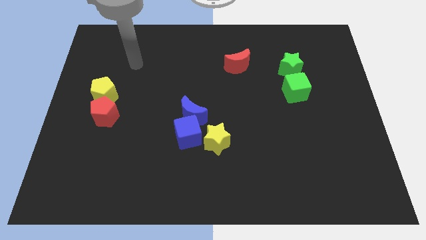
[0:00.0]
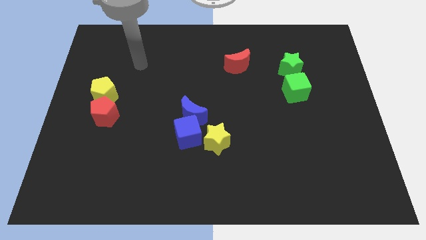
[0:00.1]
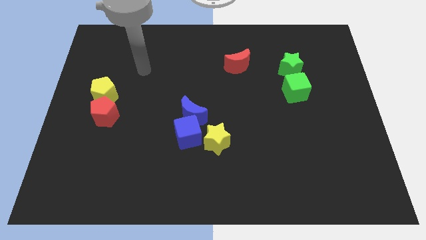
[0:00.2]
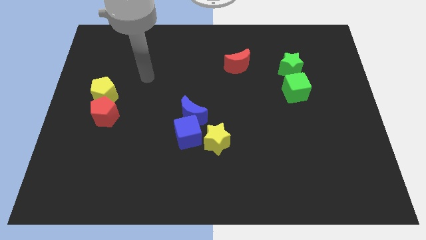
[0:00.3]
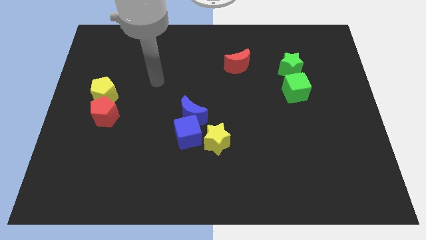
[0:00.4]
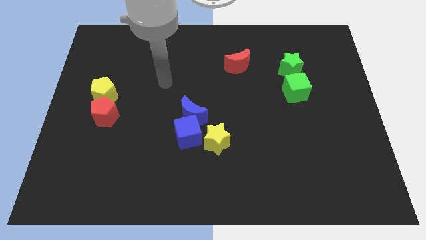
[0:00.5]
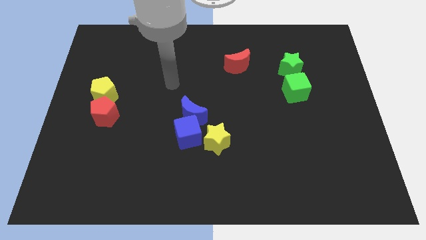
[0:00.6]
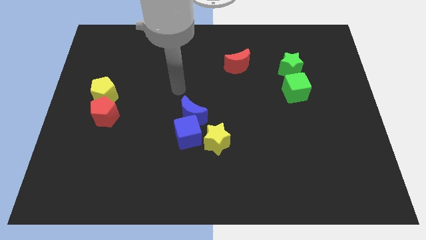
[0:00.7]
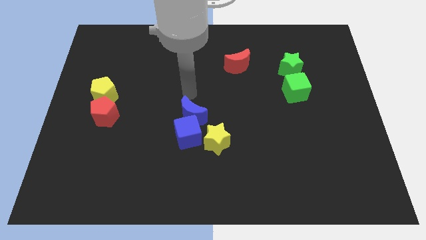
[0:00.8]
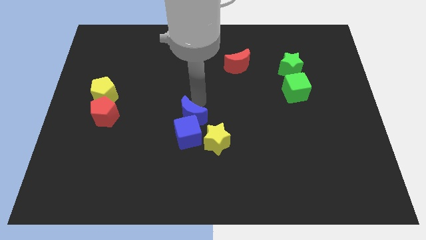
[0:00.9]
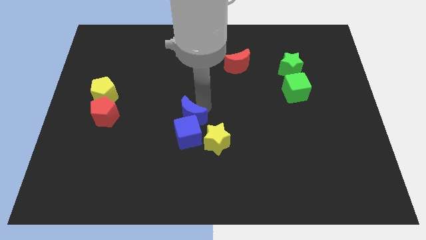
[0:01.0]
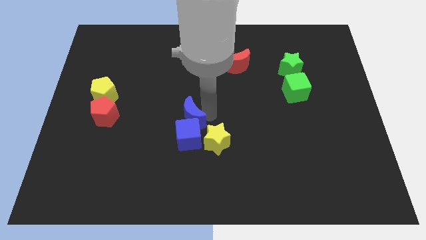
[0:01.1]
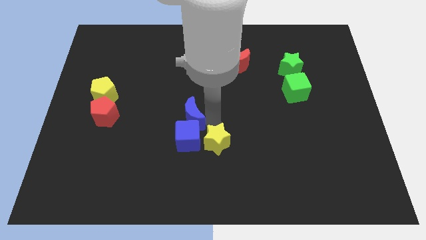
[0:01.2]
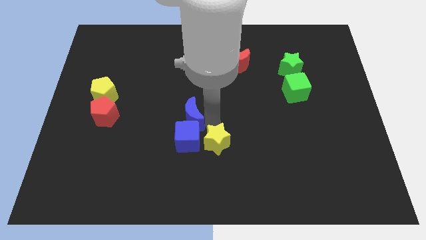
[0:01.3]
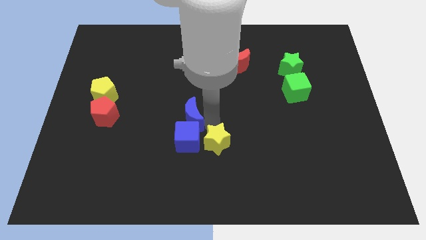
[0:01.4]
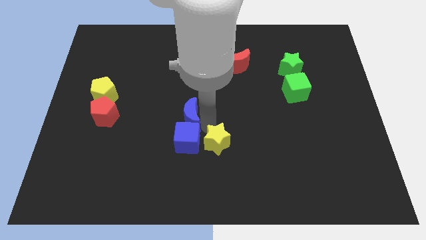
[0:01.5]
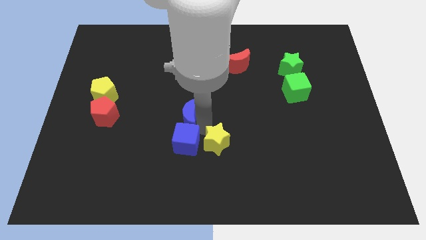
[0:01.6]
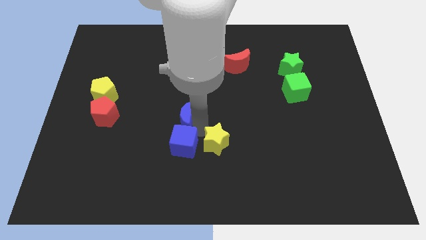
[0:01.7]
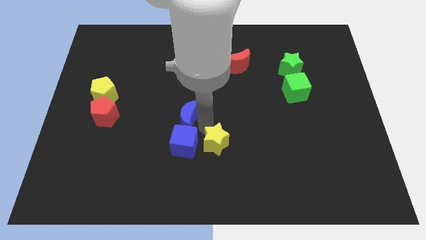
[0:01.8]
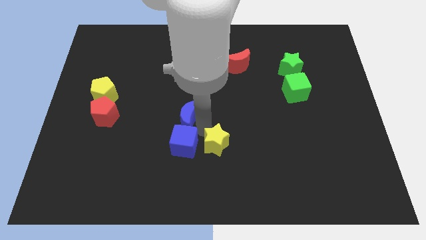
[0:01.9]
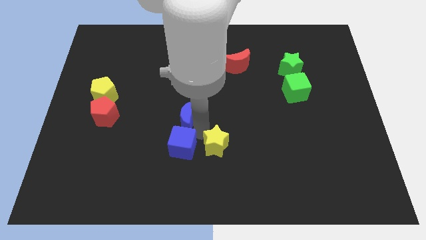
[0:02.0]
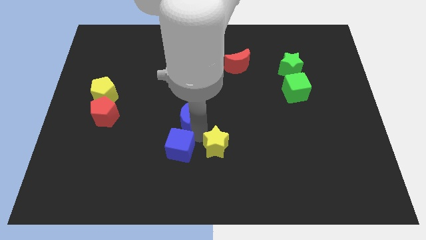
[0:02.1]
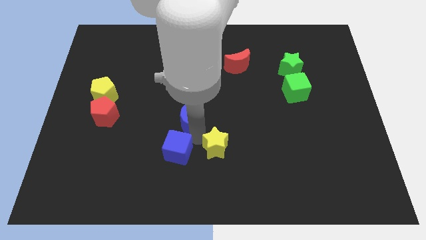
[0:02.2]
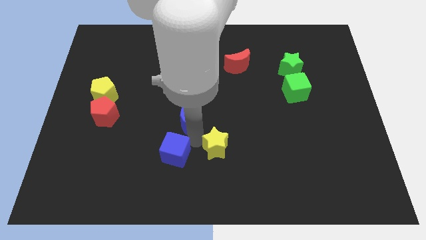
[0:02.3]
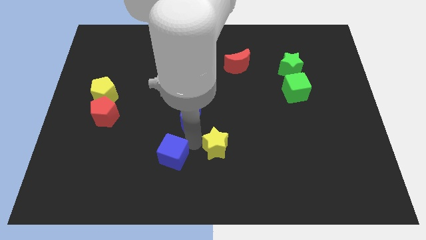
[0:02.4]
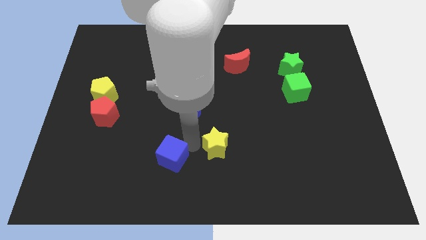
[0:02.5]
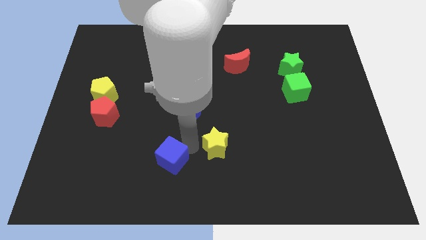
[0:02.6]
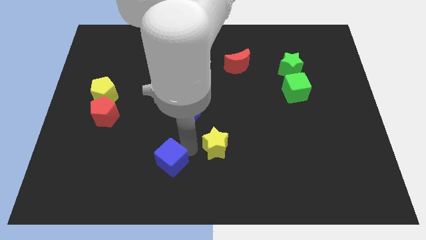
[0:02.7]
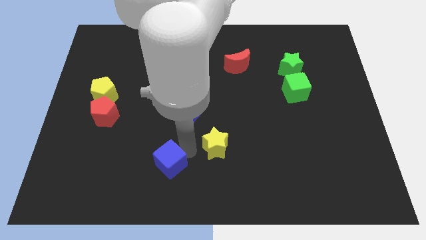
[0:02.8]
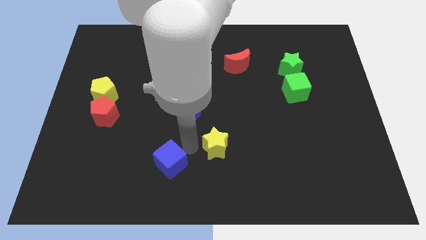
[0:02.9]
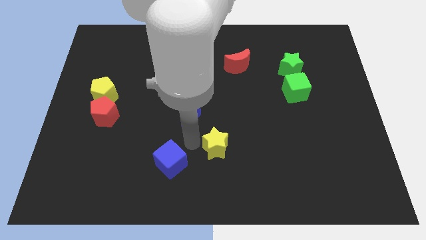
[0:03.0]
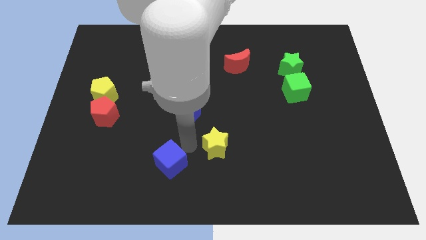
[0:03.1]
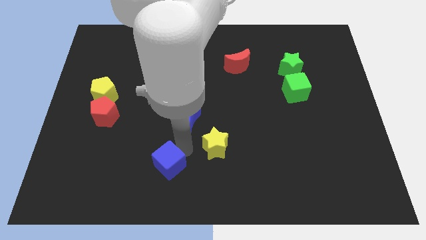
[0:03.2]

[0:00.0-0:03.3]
pull the blue cube apart from the blue moon and yellow star

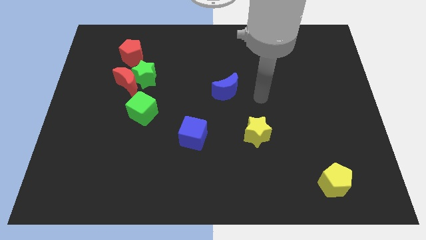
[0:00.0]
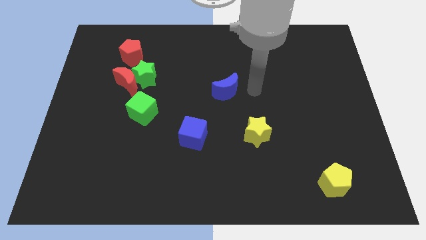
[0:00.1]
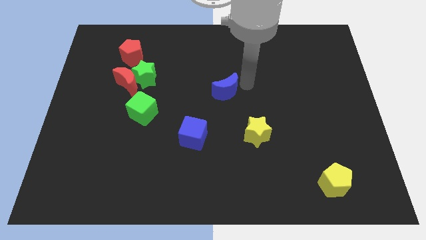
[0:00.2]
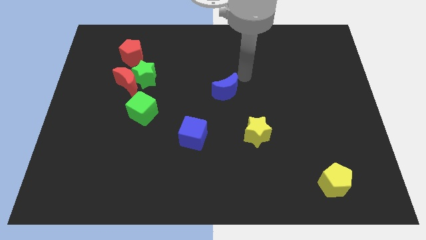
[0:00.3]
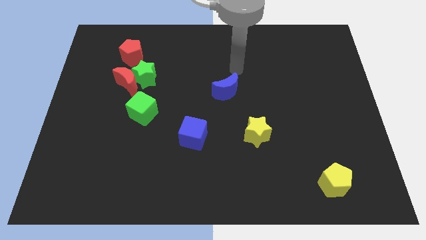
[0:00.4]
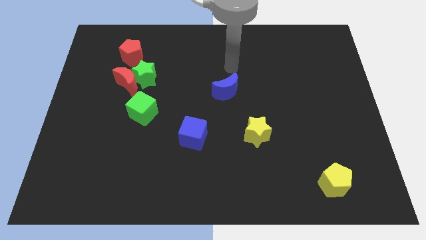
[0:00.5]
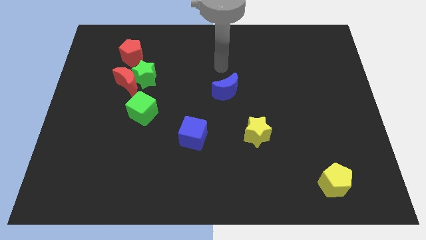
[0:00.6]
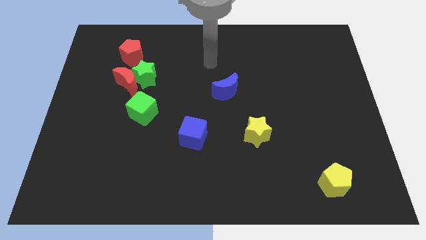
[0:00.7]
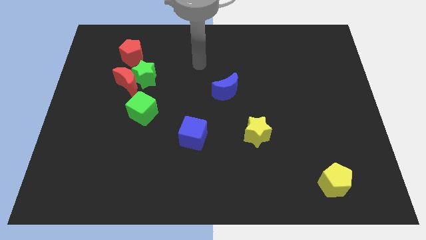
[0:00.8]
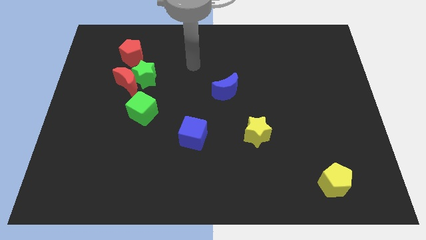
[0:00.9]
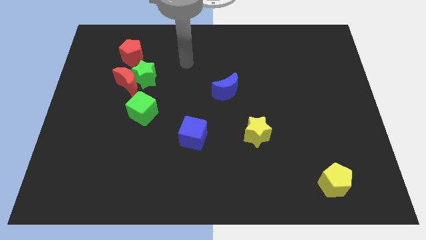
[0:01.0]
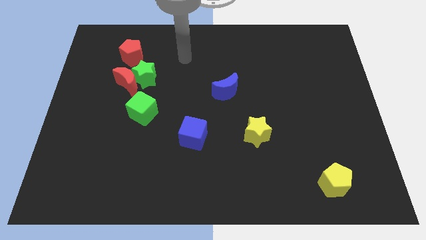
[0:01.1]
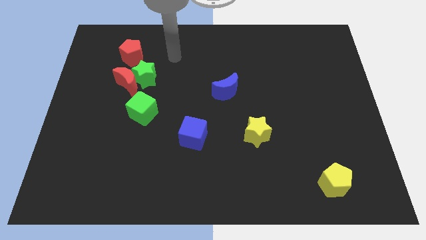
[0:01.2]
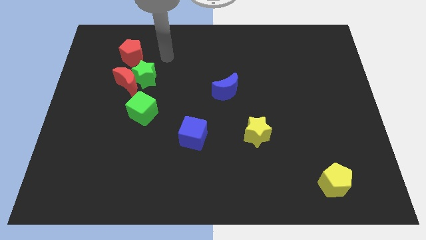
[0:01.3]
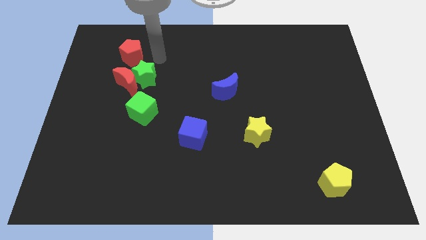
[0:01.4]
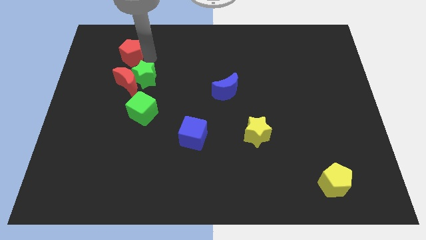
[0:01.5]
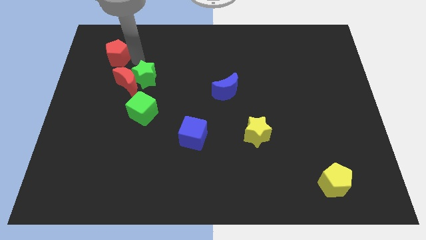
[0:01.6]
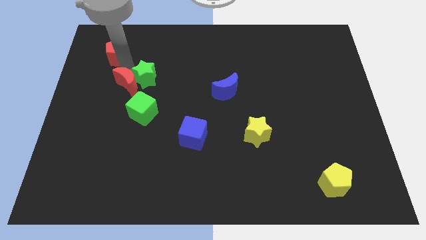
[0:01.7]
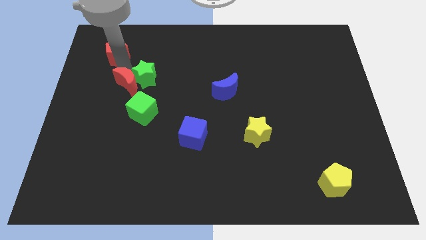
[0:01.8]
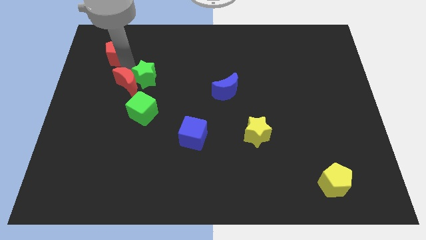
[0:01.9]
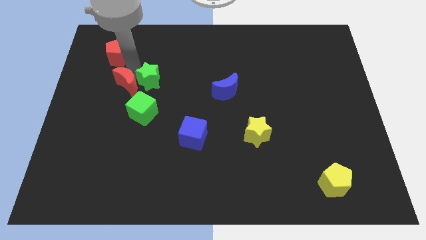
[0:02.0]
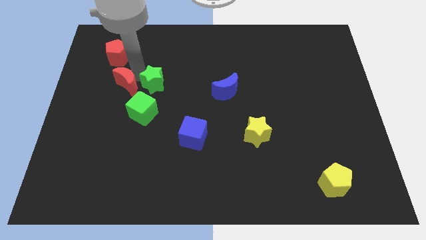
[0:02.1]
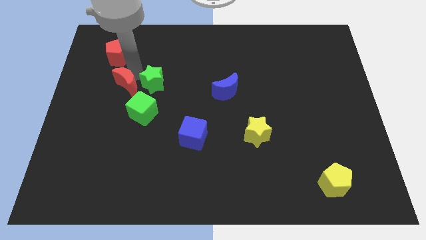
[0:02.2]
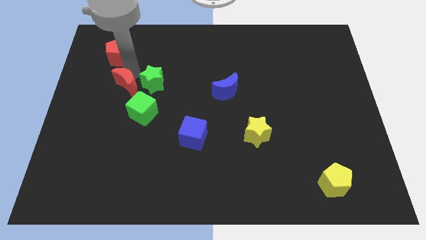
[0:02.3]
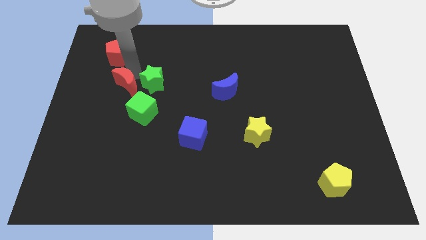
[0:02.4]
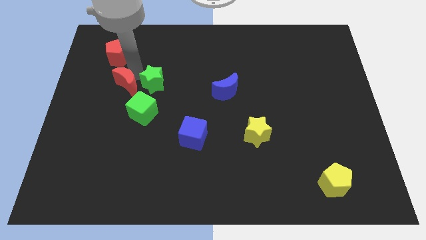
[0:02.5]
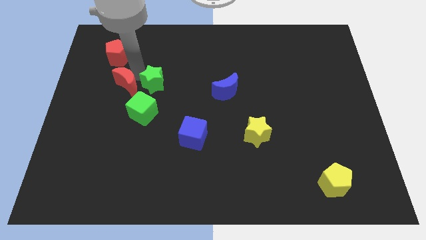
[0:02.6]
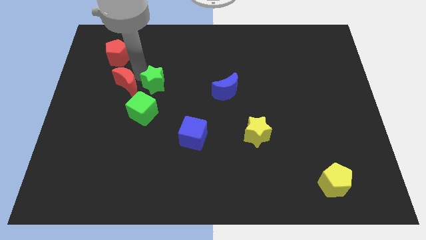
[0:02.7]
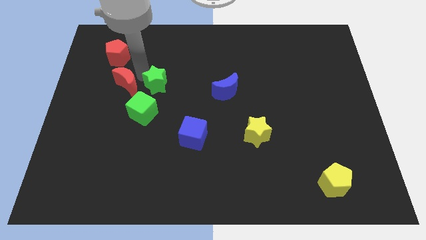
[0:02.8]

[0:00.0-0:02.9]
move the green star away from the red moon and red pentagon

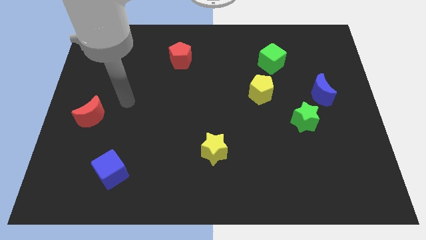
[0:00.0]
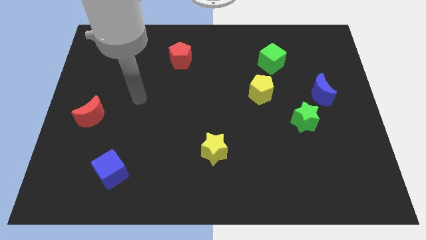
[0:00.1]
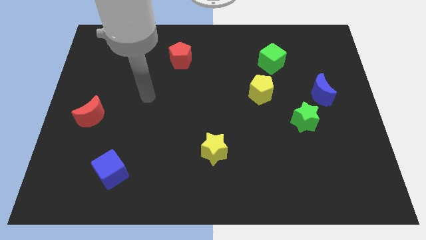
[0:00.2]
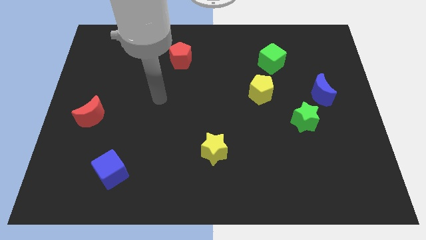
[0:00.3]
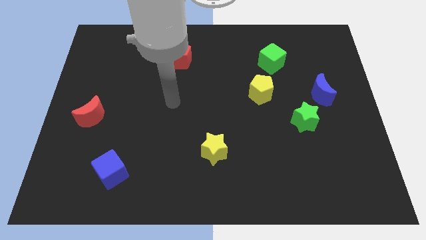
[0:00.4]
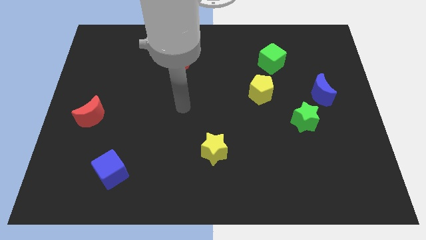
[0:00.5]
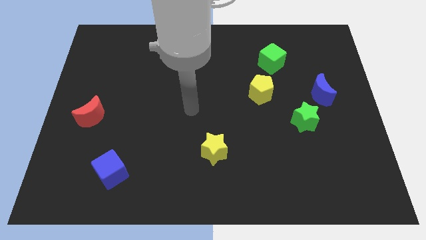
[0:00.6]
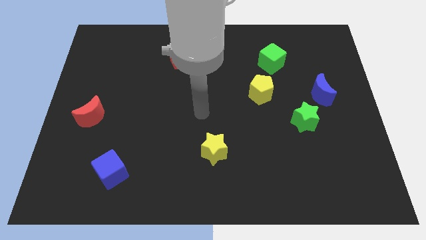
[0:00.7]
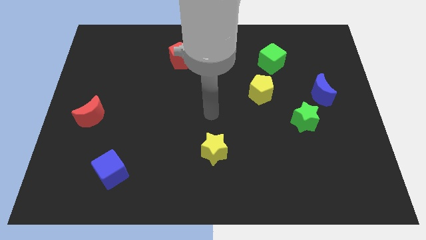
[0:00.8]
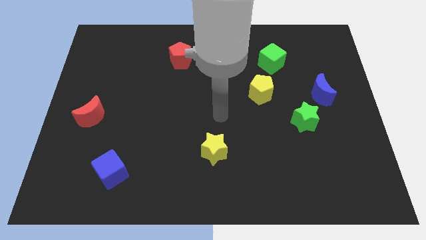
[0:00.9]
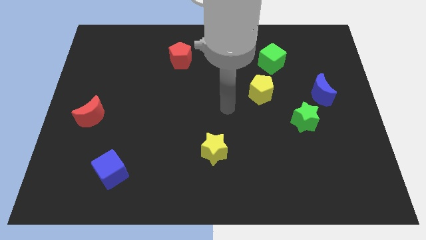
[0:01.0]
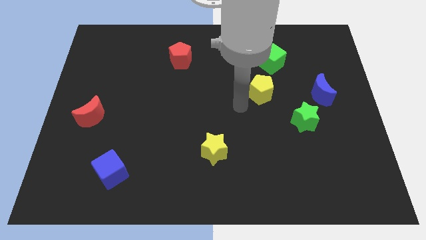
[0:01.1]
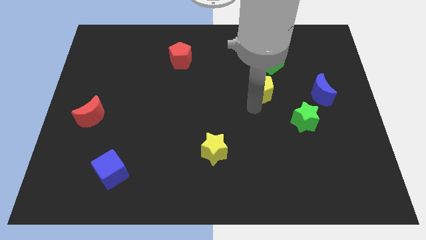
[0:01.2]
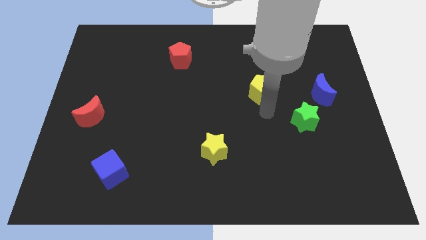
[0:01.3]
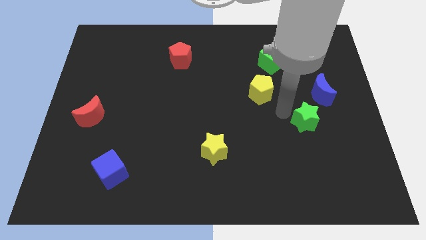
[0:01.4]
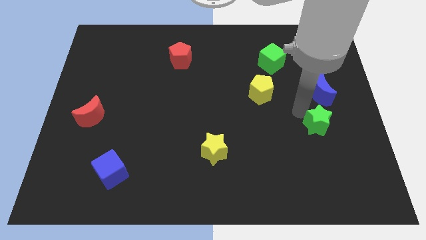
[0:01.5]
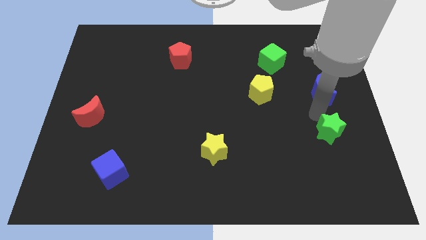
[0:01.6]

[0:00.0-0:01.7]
move the blue moon away from the green star

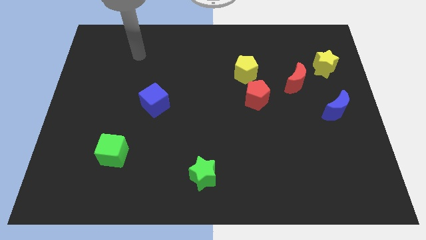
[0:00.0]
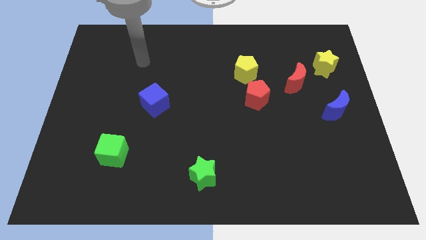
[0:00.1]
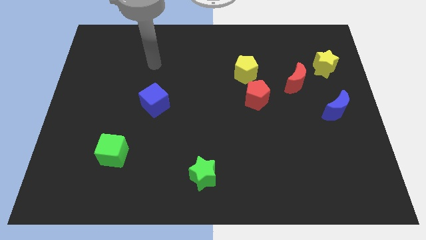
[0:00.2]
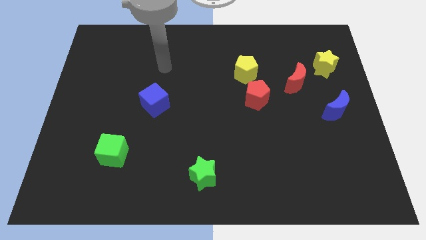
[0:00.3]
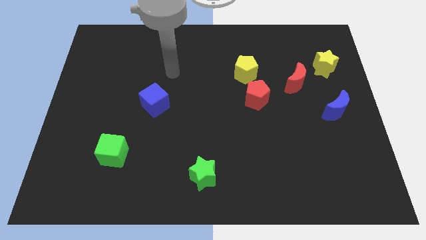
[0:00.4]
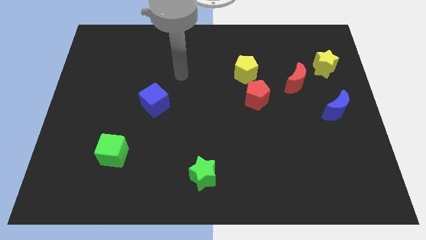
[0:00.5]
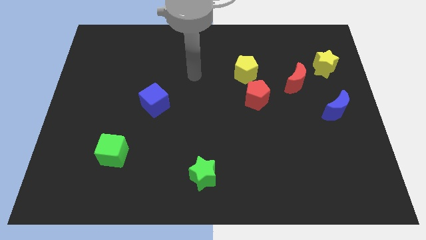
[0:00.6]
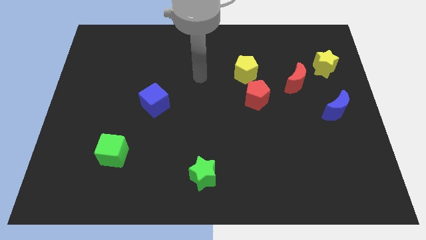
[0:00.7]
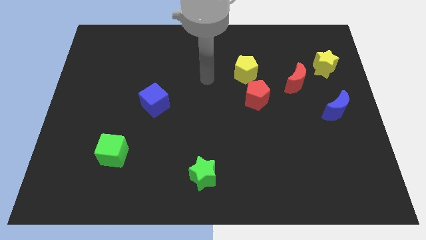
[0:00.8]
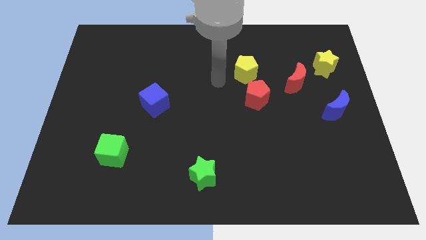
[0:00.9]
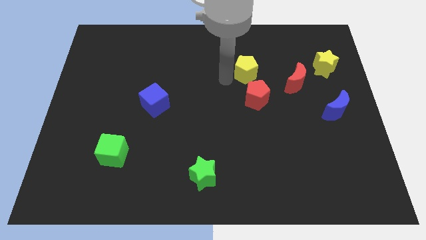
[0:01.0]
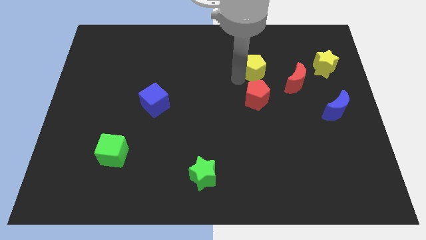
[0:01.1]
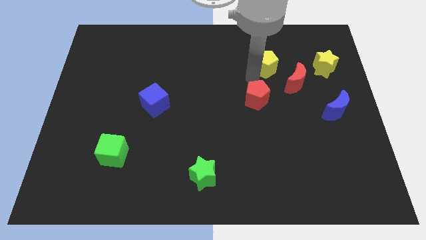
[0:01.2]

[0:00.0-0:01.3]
pull the red pentagon apart from the yellow pentagon

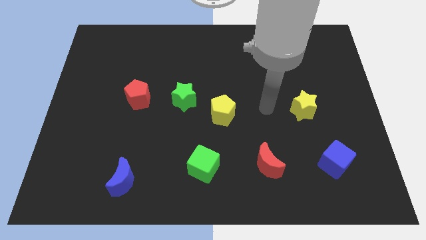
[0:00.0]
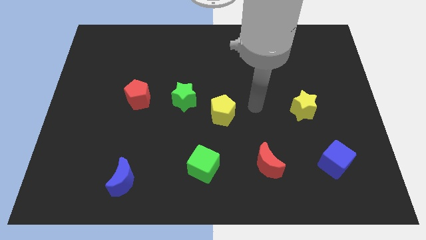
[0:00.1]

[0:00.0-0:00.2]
separate the green star from the yellow pentagon
